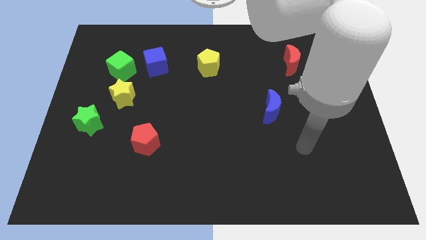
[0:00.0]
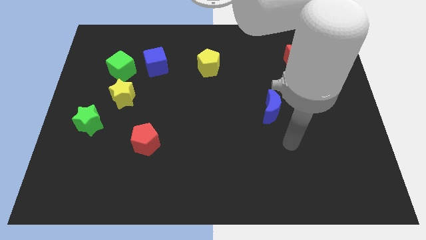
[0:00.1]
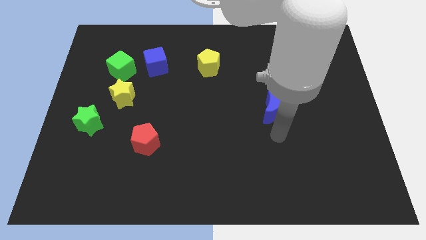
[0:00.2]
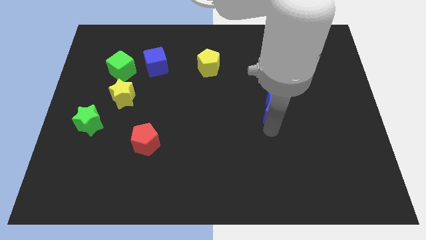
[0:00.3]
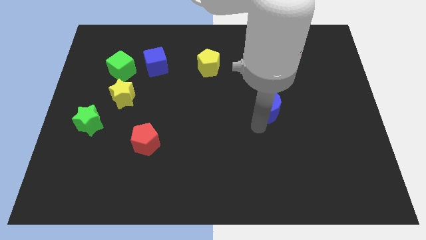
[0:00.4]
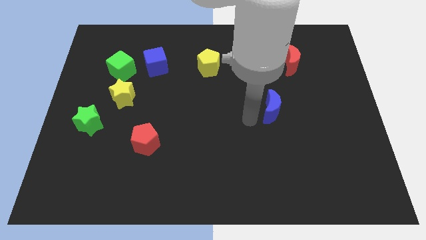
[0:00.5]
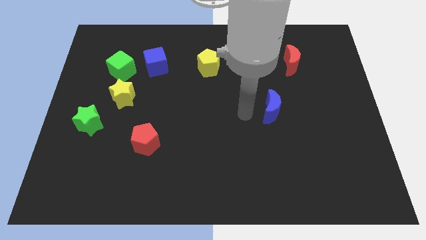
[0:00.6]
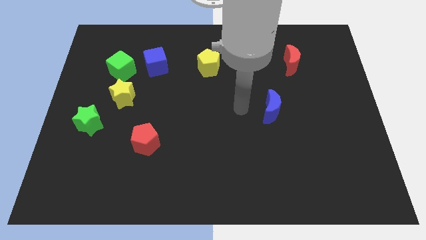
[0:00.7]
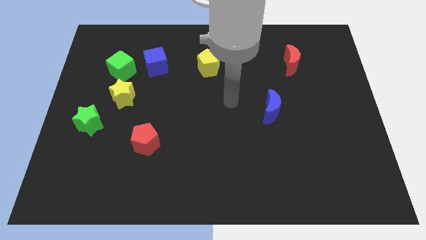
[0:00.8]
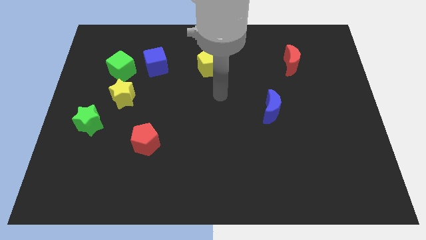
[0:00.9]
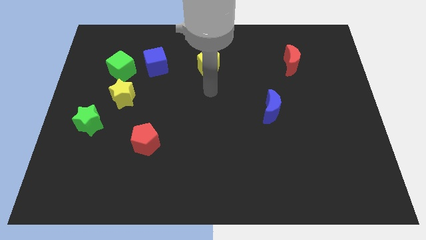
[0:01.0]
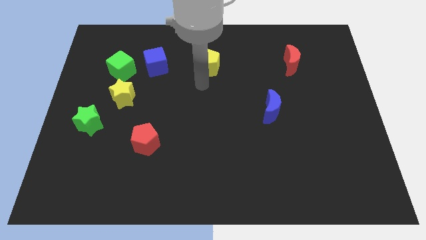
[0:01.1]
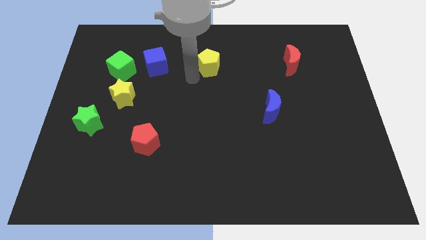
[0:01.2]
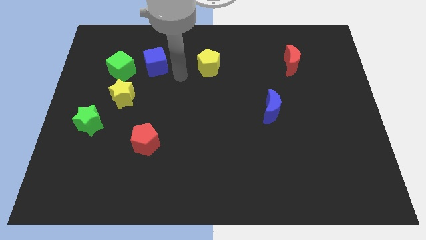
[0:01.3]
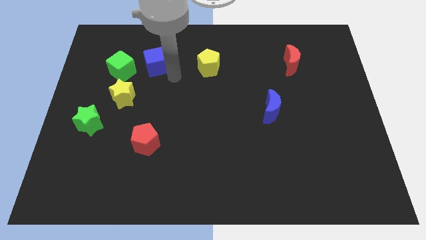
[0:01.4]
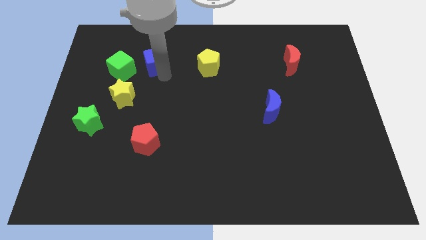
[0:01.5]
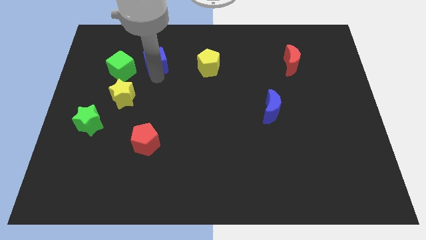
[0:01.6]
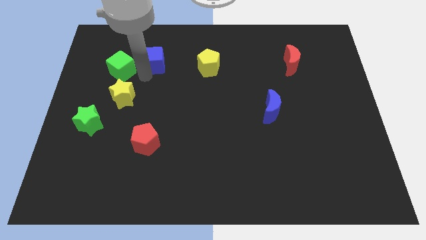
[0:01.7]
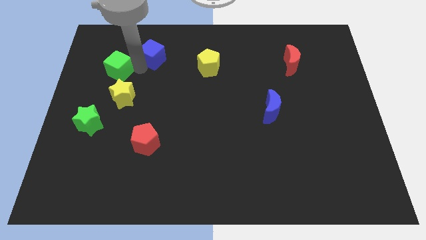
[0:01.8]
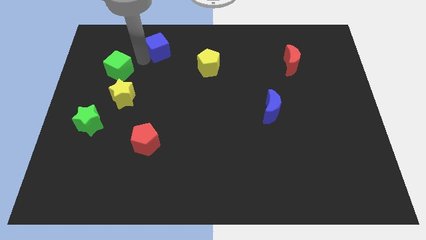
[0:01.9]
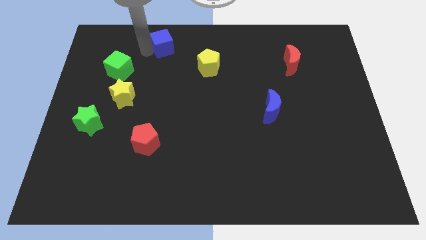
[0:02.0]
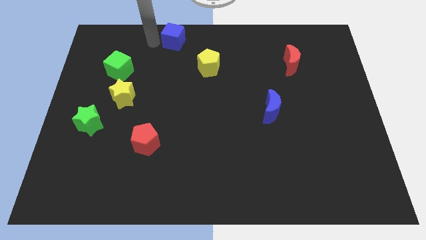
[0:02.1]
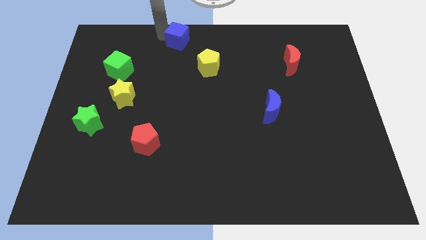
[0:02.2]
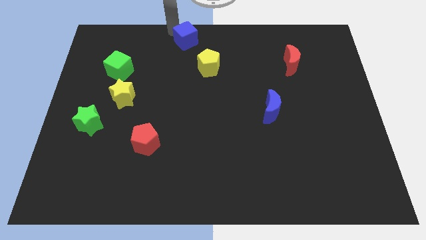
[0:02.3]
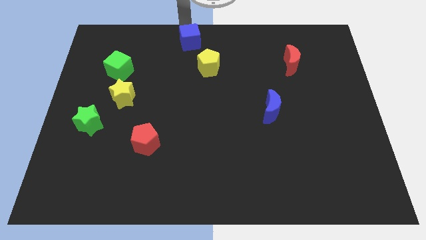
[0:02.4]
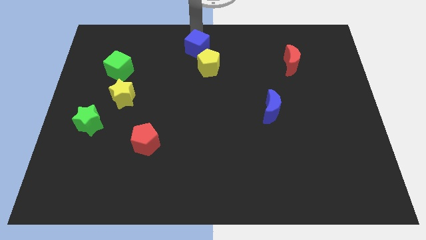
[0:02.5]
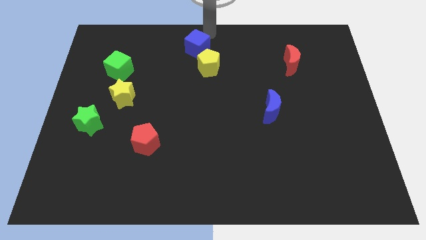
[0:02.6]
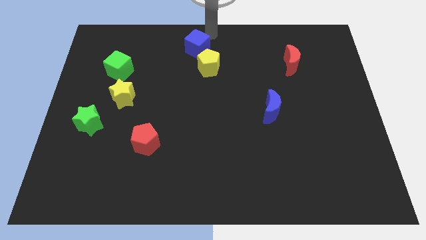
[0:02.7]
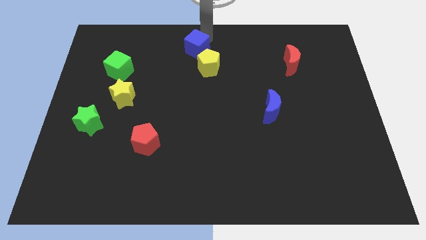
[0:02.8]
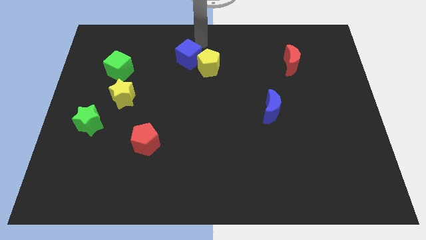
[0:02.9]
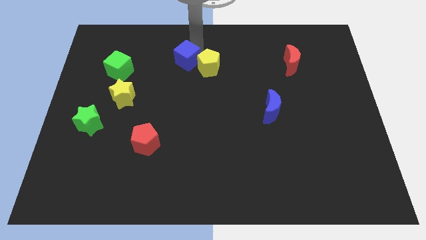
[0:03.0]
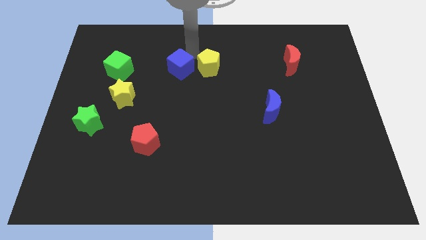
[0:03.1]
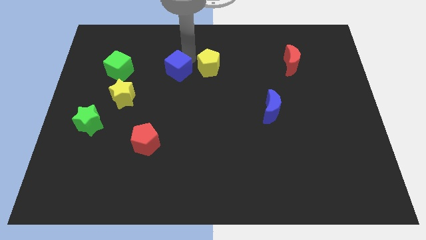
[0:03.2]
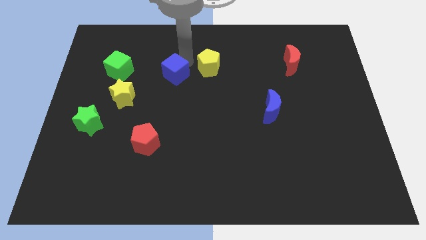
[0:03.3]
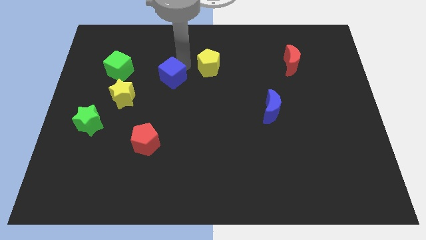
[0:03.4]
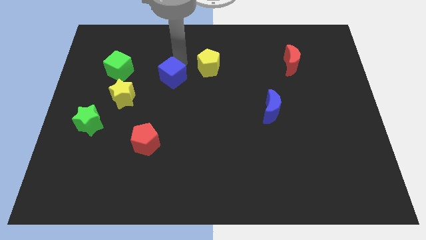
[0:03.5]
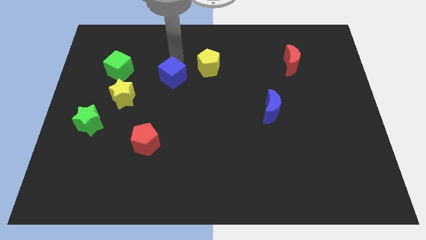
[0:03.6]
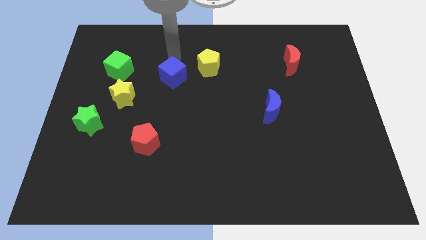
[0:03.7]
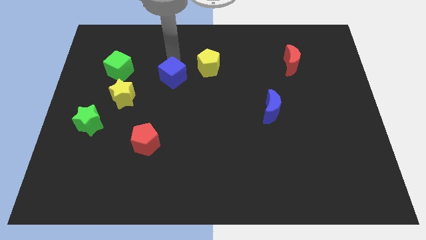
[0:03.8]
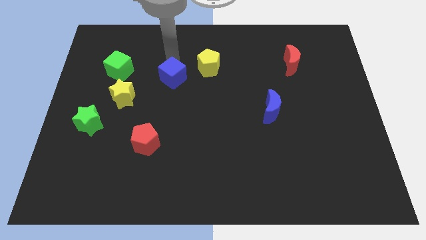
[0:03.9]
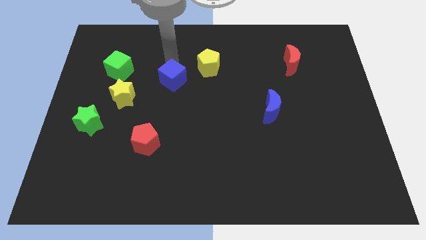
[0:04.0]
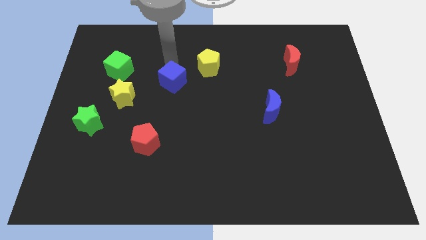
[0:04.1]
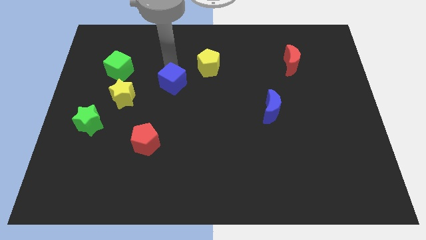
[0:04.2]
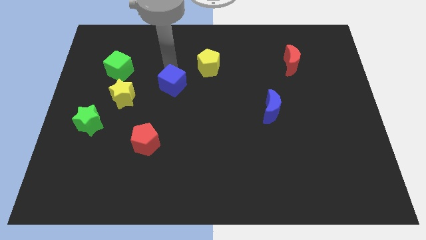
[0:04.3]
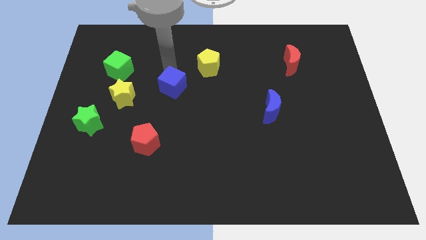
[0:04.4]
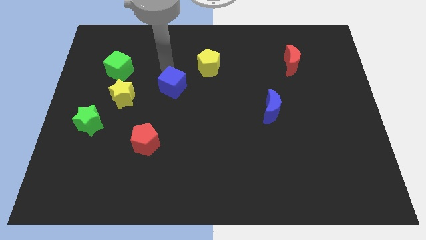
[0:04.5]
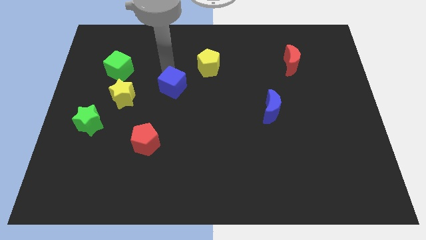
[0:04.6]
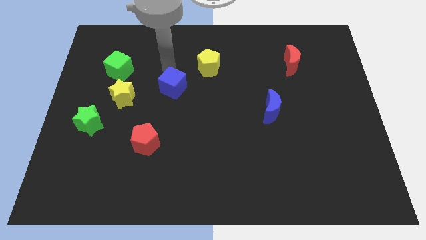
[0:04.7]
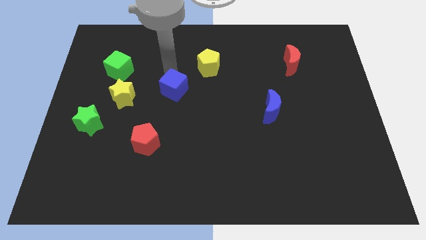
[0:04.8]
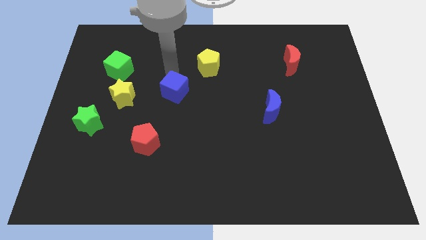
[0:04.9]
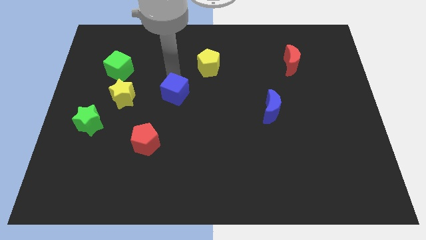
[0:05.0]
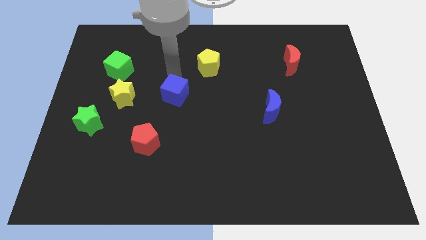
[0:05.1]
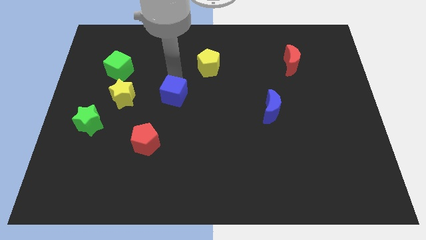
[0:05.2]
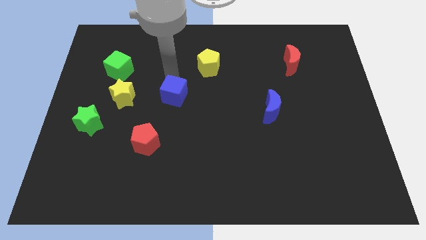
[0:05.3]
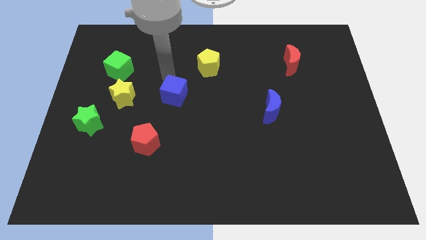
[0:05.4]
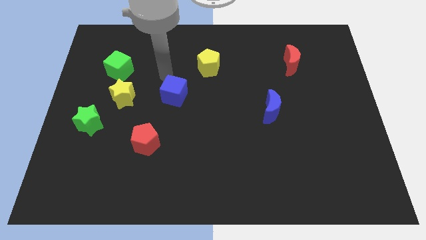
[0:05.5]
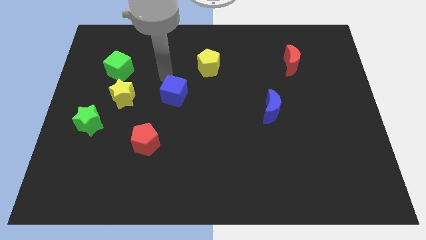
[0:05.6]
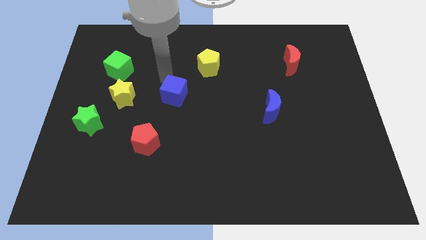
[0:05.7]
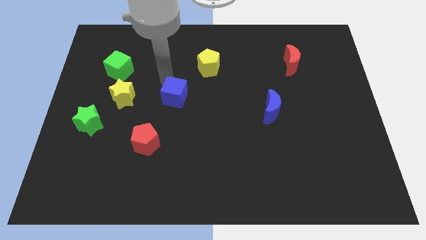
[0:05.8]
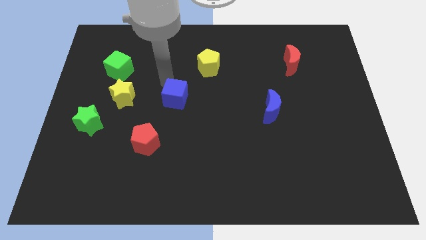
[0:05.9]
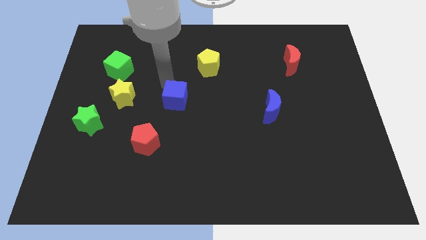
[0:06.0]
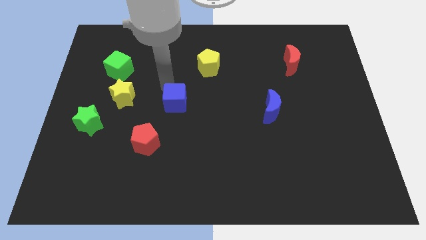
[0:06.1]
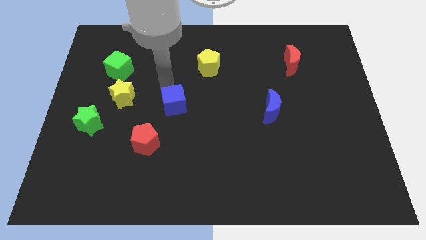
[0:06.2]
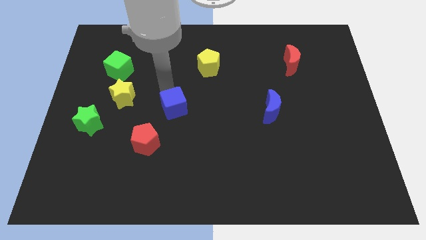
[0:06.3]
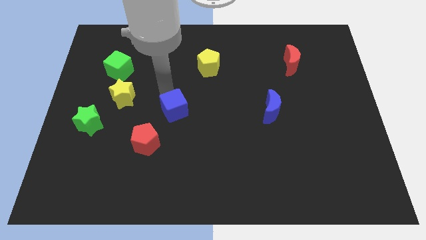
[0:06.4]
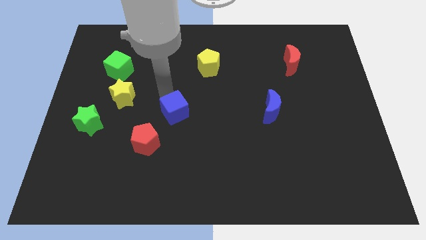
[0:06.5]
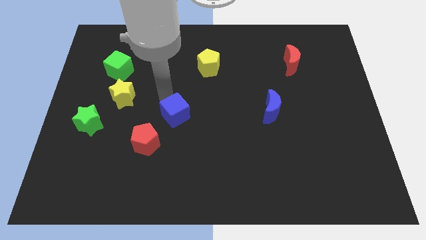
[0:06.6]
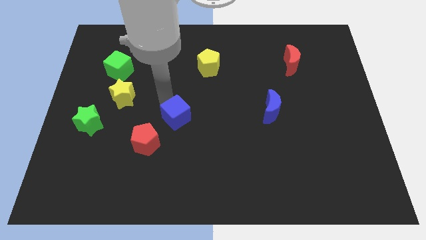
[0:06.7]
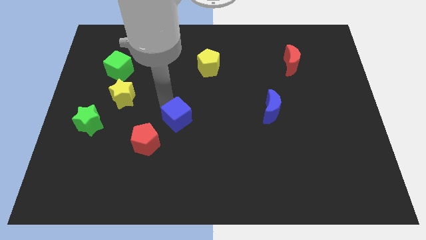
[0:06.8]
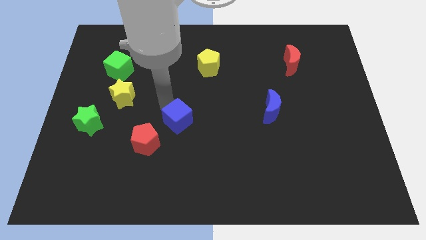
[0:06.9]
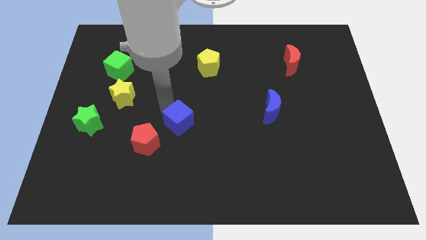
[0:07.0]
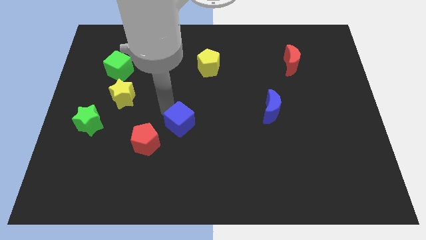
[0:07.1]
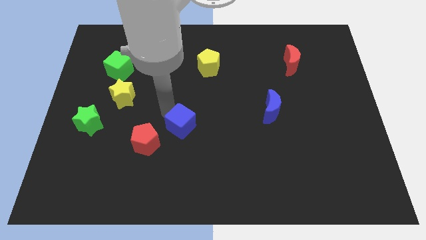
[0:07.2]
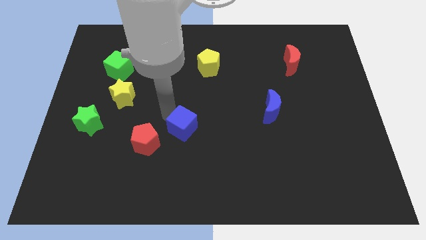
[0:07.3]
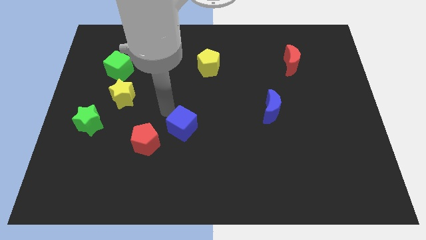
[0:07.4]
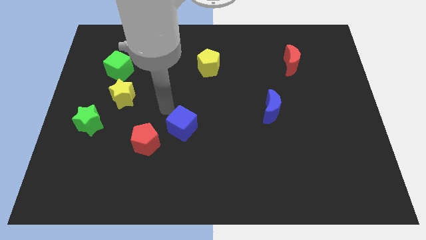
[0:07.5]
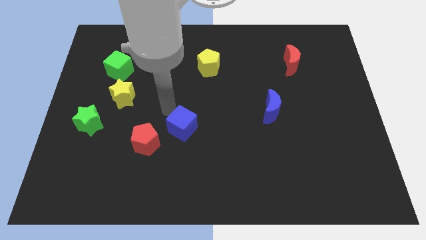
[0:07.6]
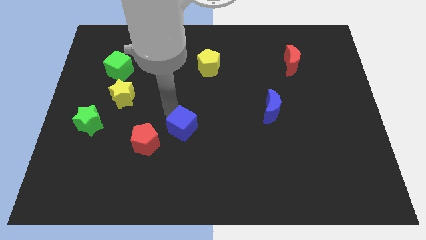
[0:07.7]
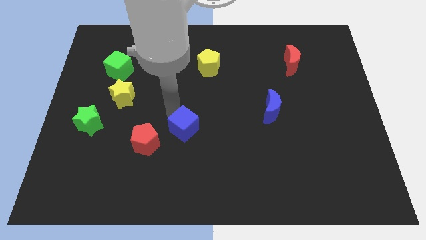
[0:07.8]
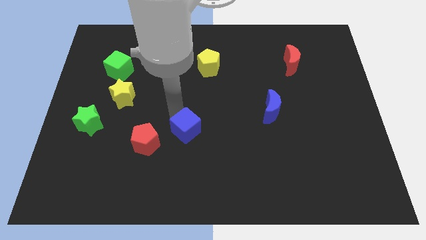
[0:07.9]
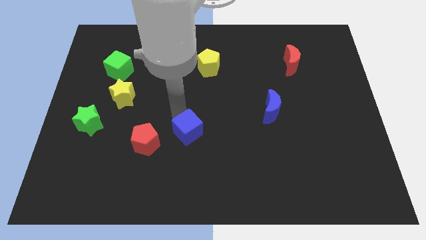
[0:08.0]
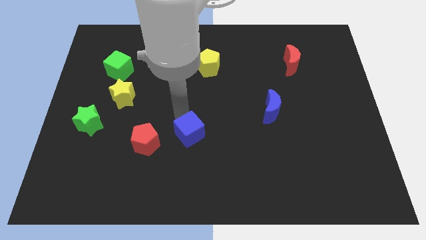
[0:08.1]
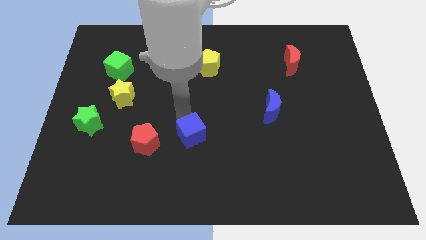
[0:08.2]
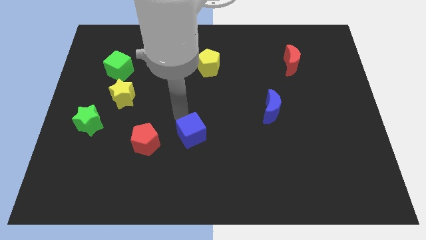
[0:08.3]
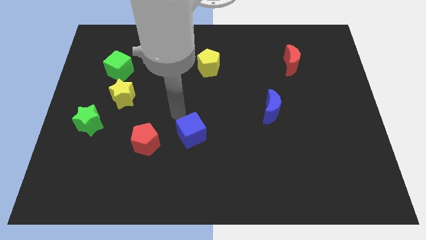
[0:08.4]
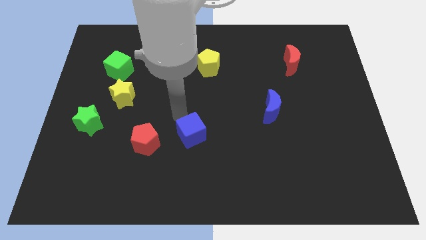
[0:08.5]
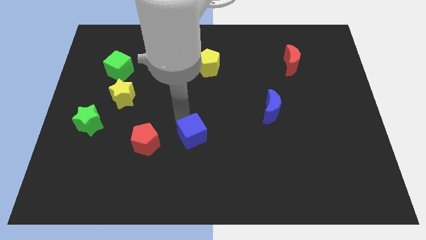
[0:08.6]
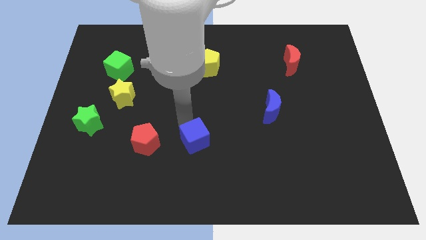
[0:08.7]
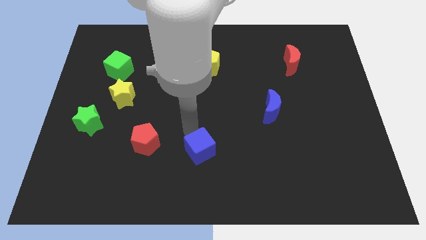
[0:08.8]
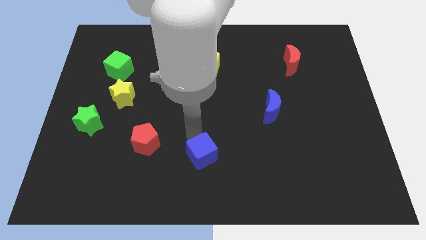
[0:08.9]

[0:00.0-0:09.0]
slide the blue cube to the bottom side
